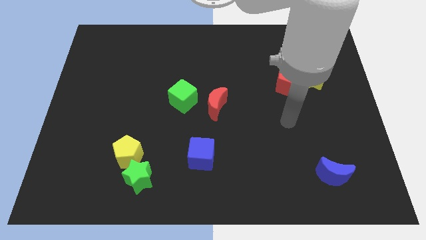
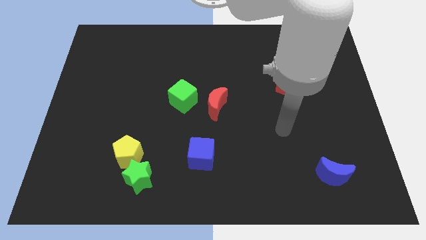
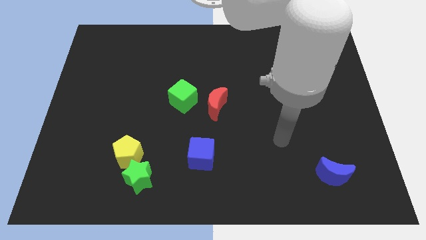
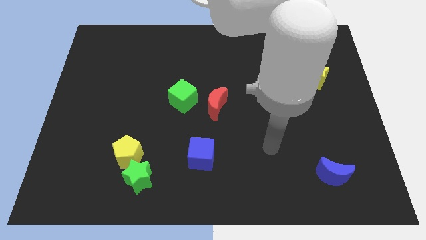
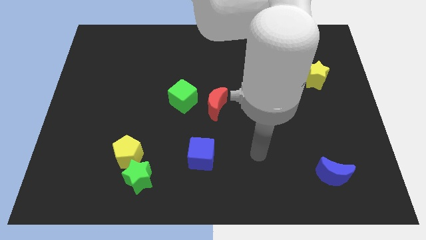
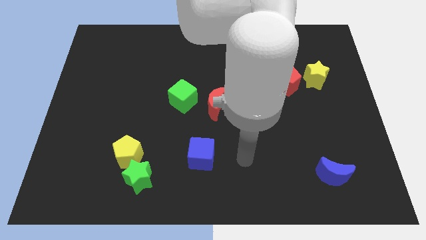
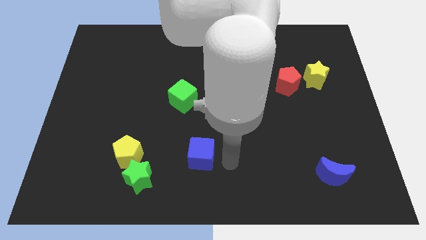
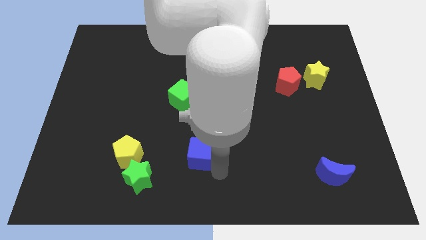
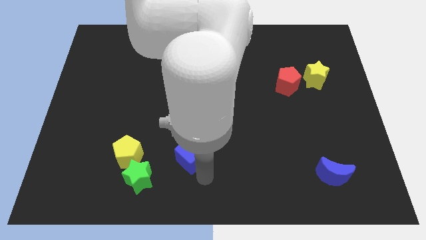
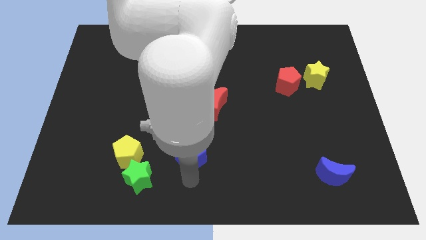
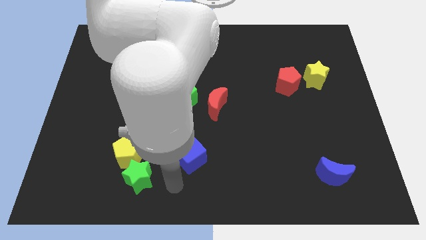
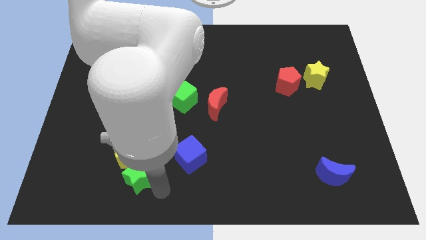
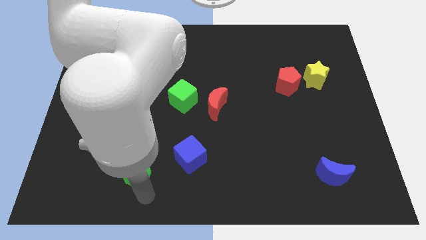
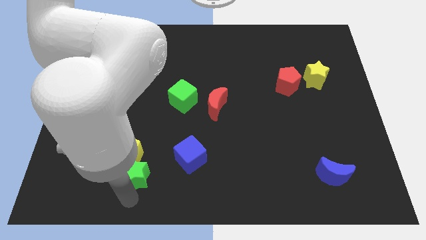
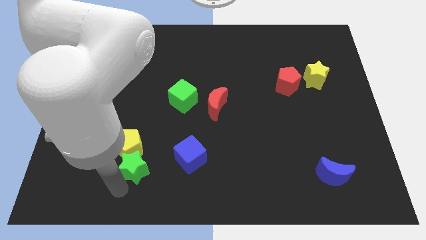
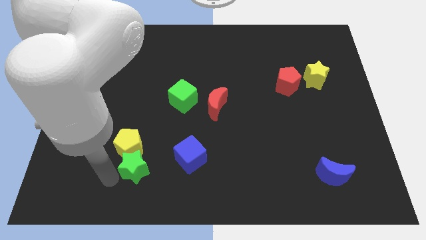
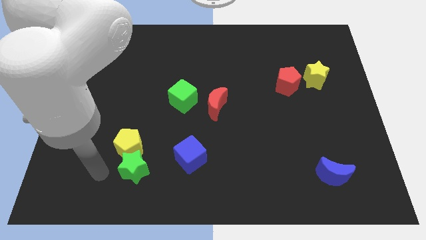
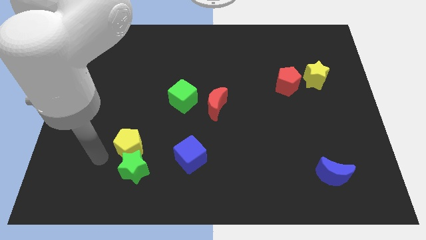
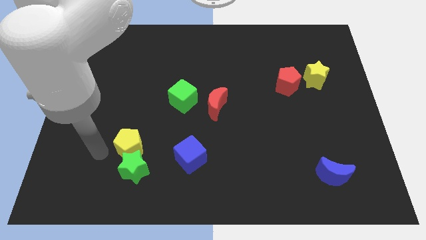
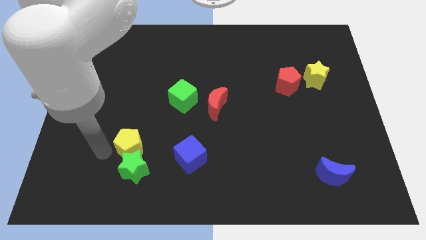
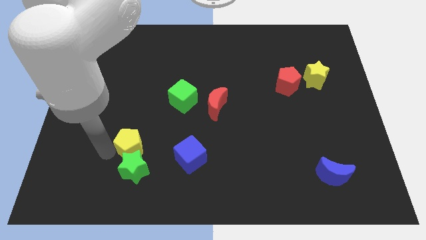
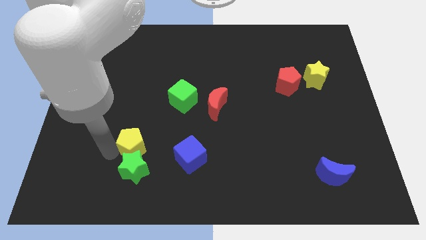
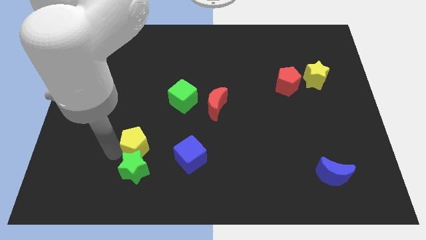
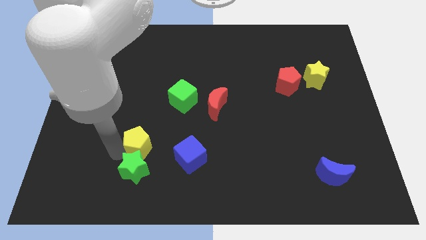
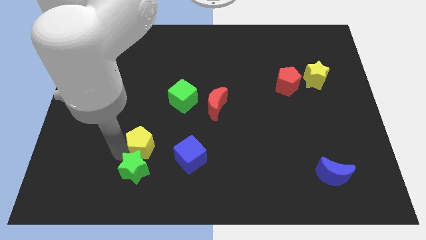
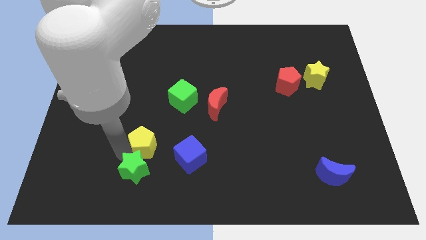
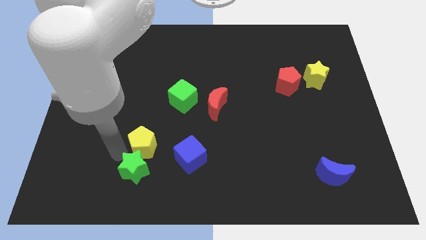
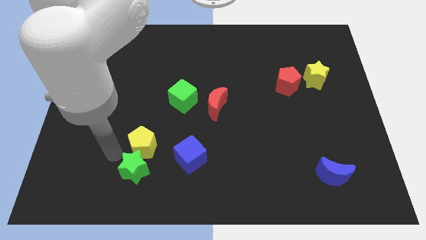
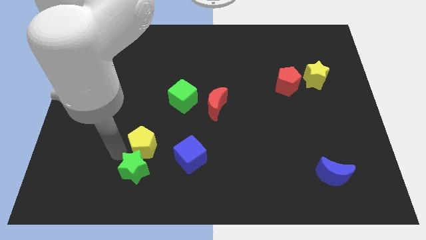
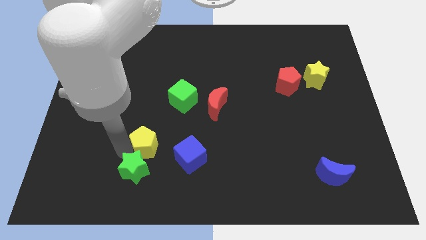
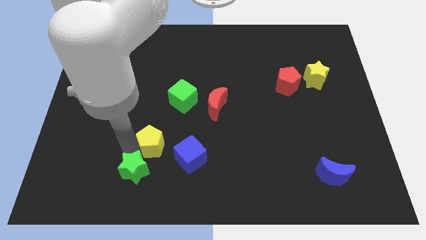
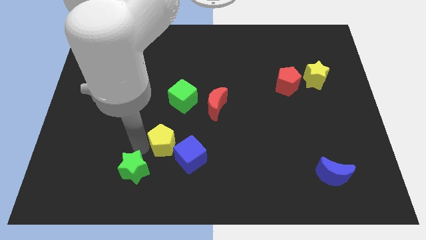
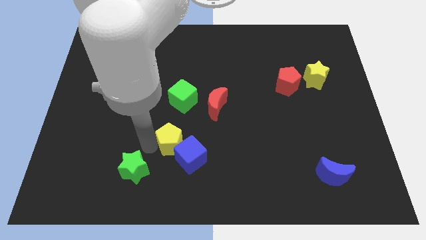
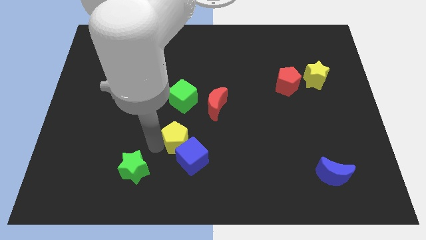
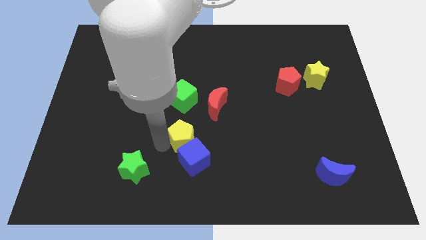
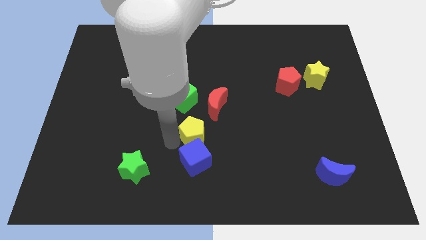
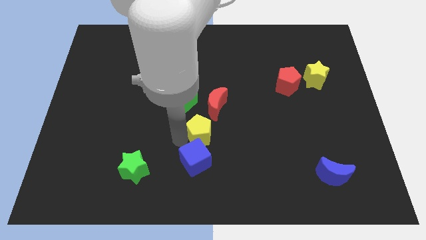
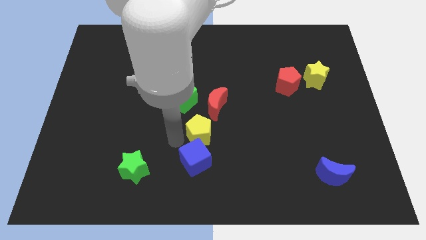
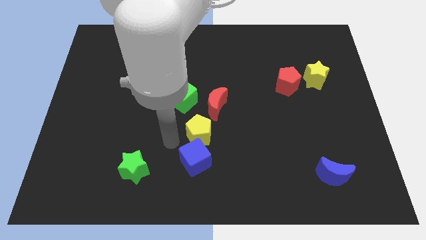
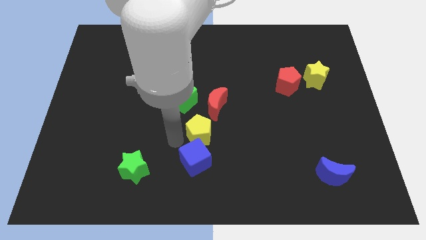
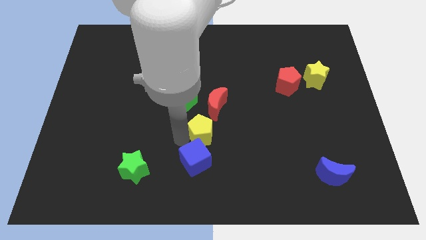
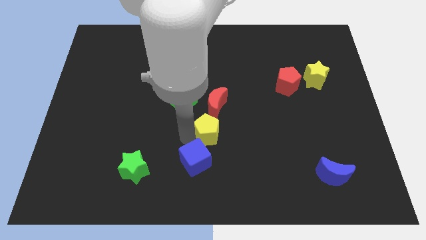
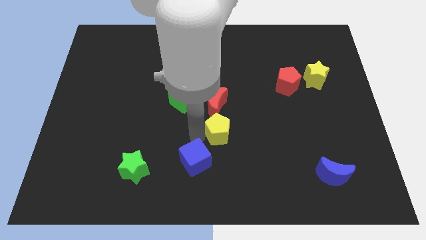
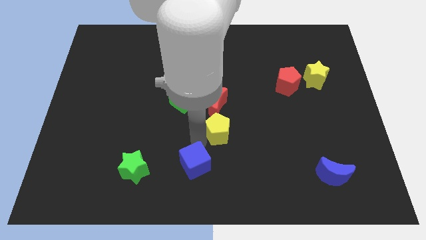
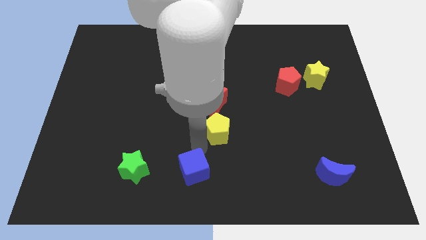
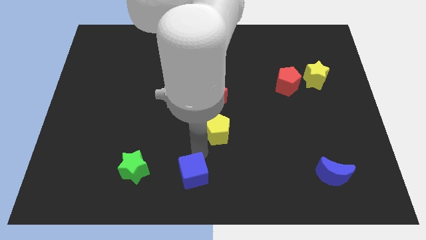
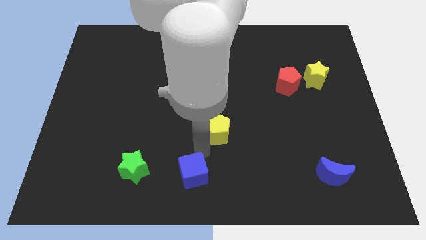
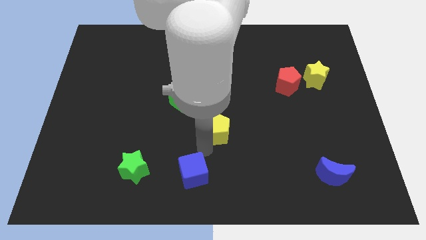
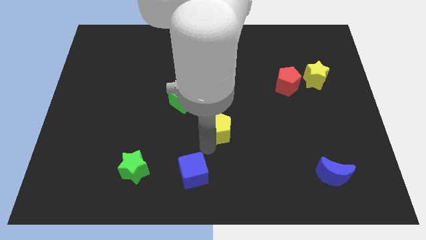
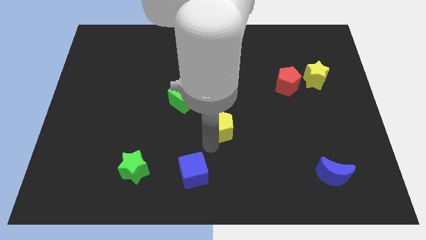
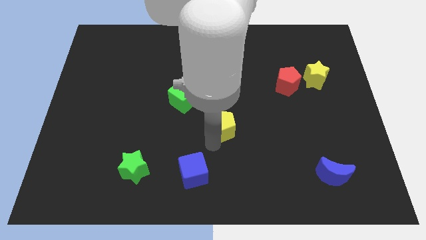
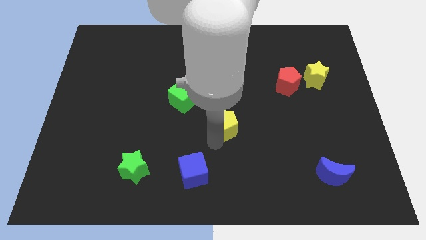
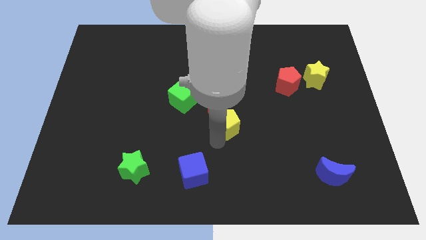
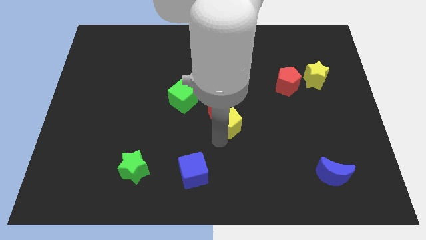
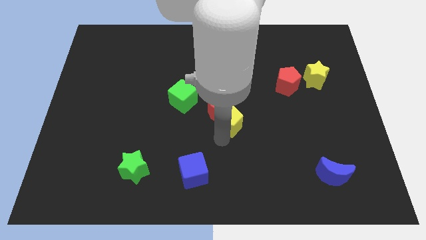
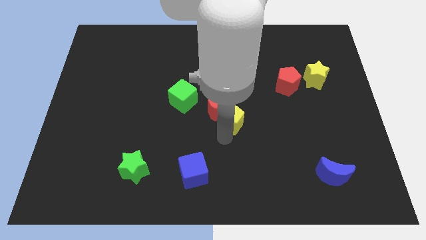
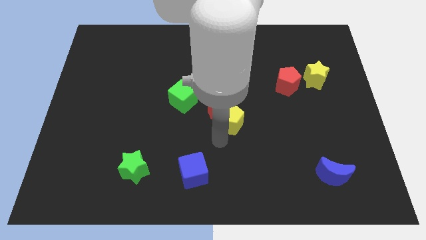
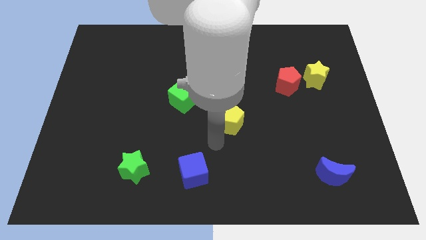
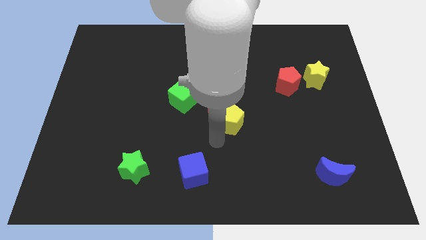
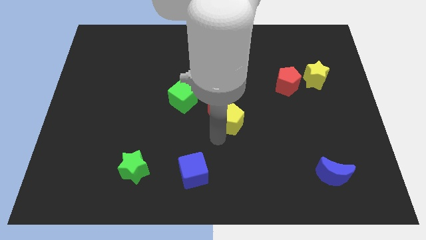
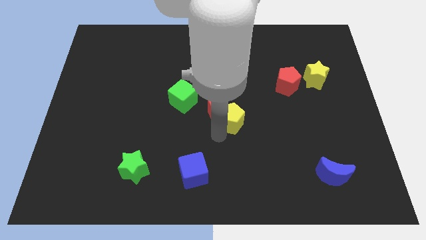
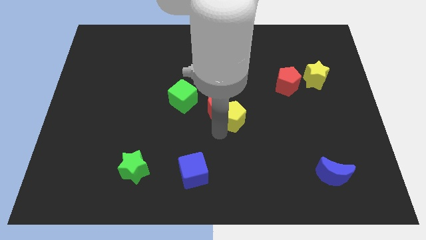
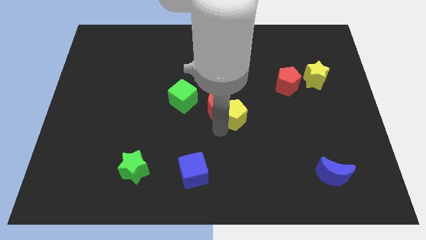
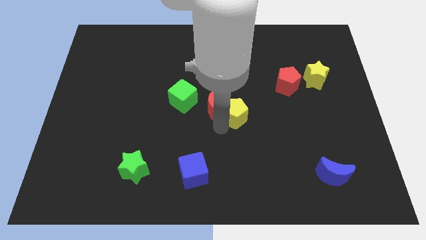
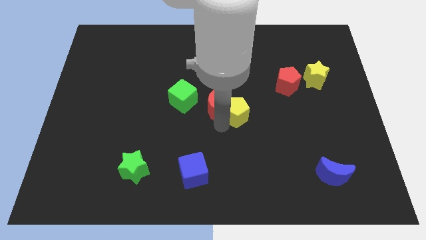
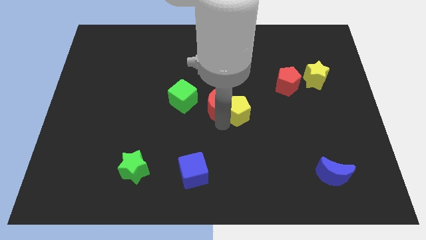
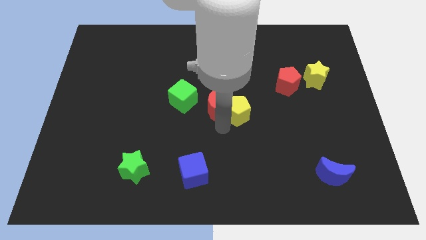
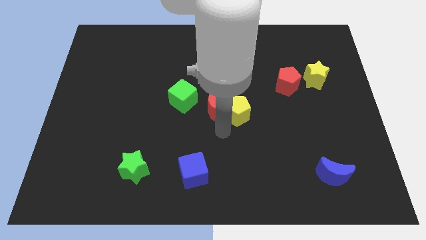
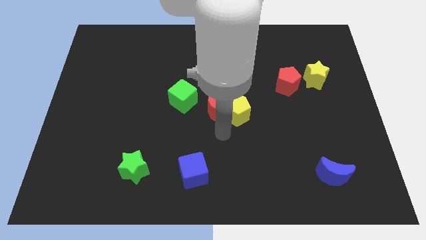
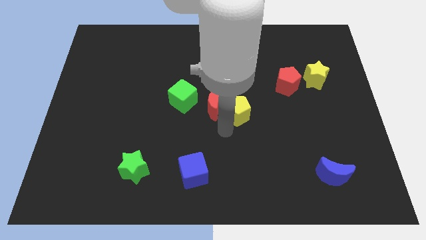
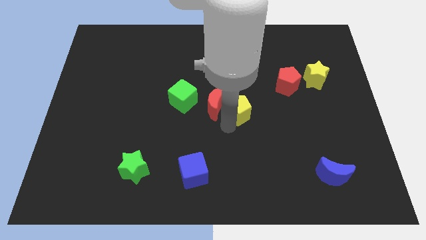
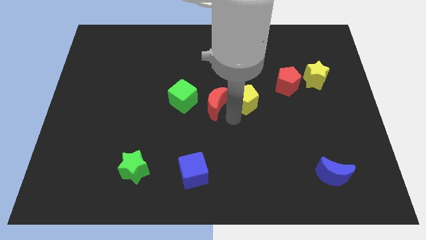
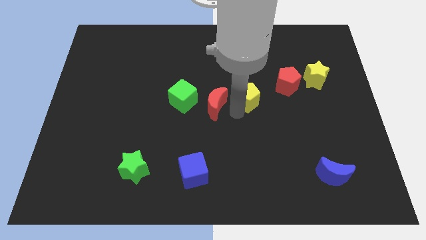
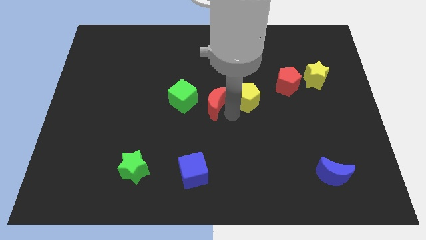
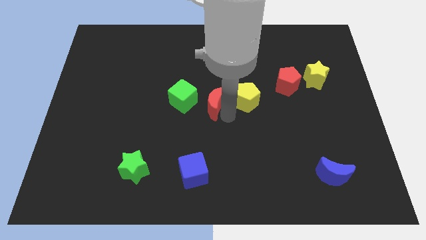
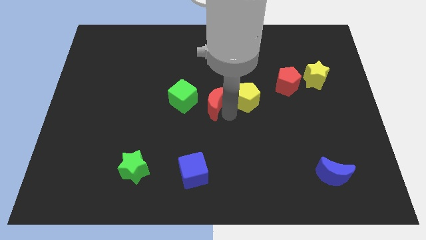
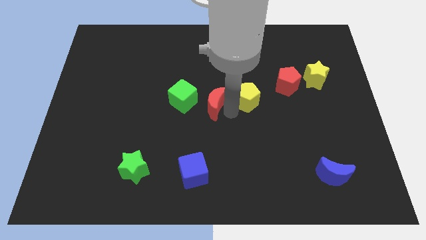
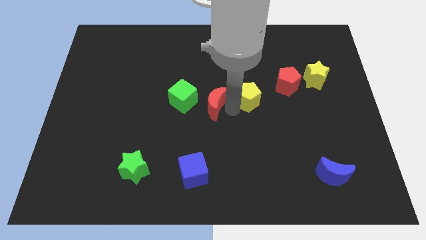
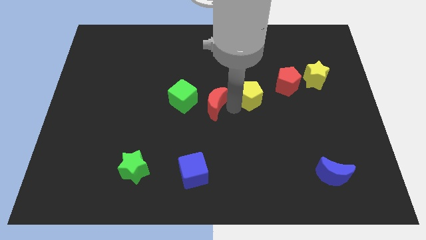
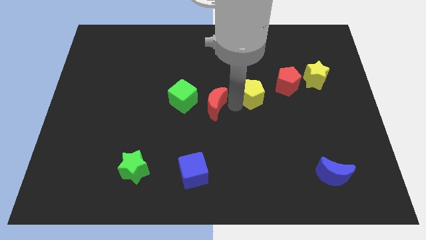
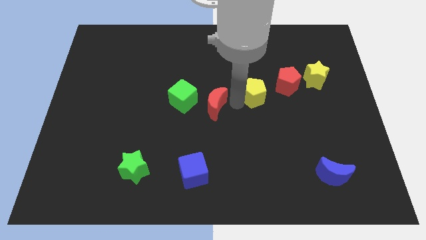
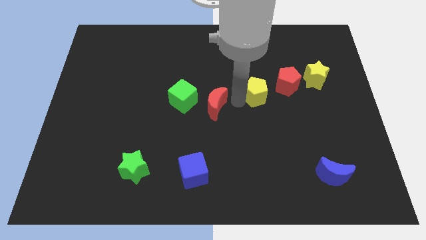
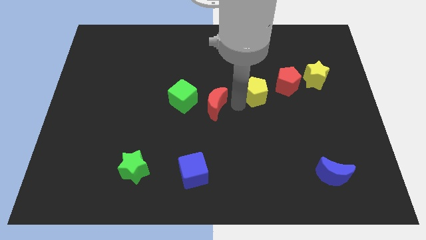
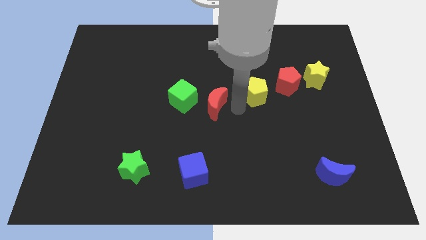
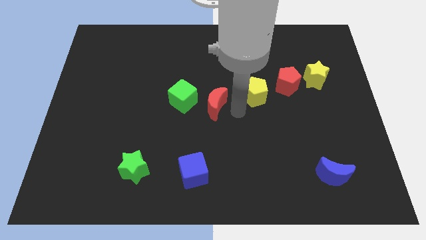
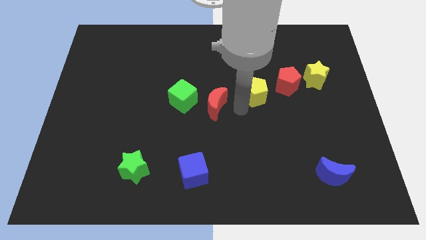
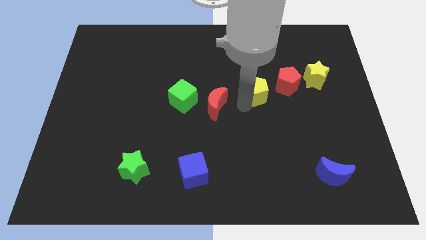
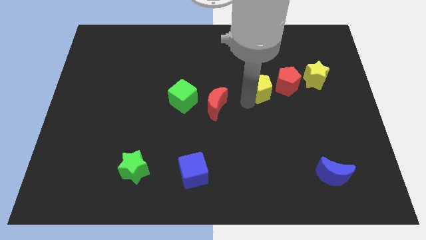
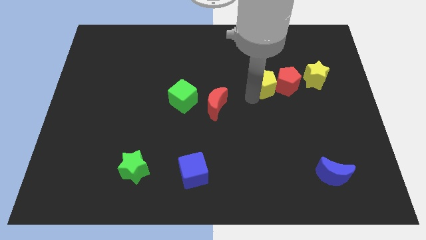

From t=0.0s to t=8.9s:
move the yellow pentagon left of the yellow star
